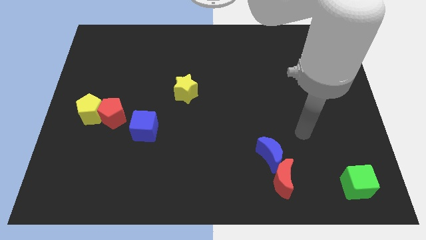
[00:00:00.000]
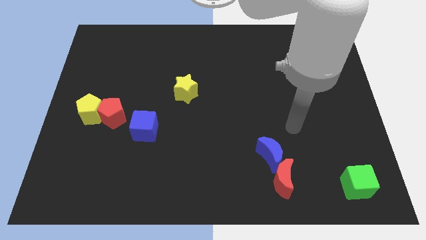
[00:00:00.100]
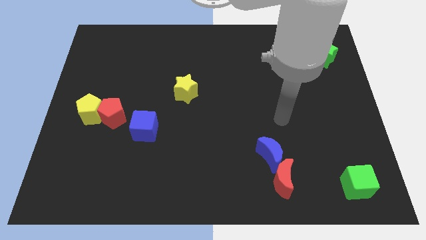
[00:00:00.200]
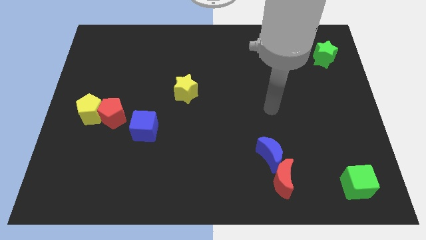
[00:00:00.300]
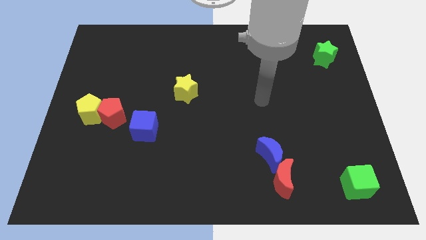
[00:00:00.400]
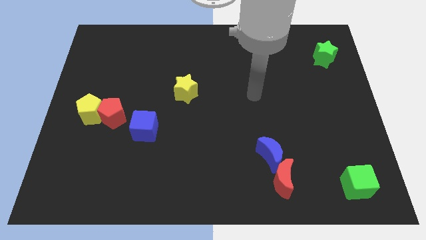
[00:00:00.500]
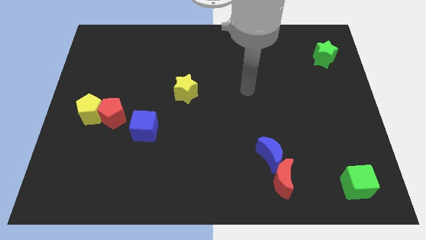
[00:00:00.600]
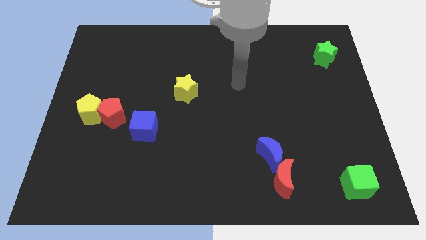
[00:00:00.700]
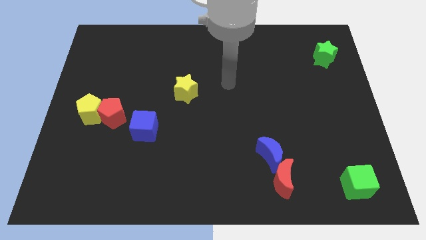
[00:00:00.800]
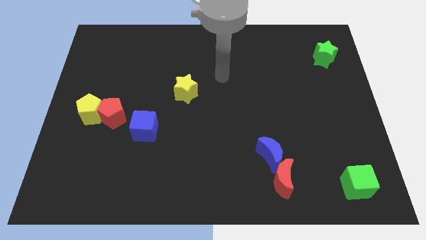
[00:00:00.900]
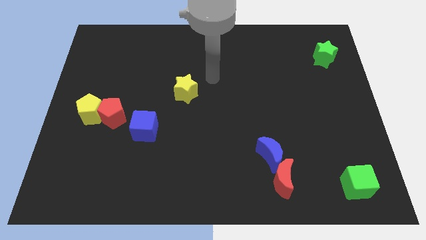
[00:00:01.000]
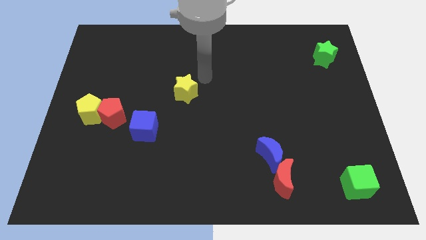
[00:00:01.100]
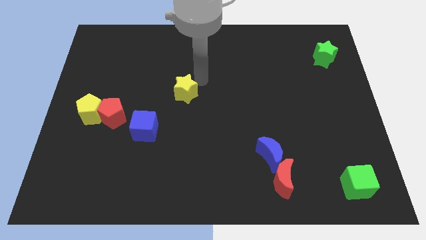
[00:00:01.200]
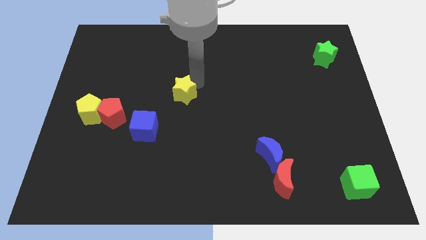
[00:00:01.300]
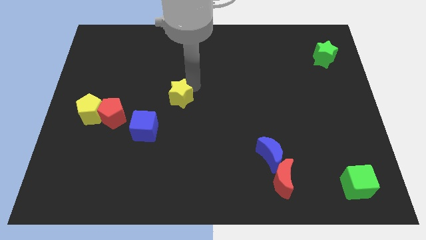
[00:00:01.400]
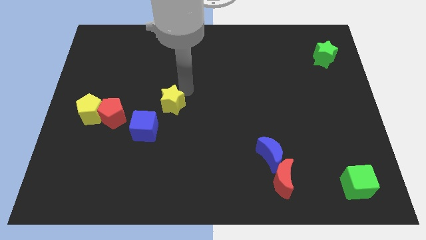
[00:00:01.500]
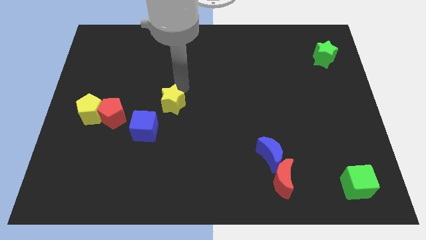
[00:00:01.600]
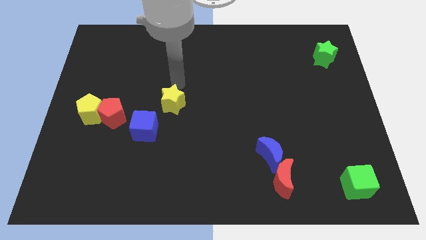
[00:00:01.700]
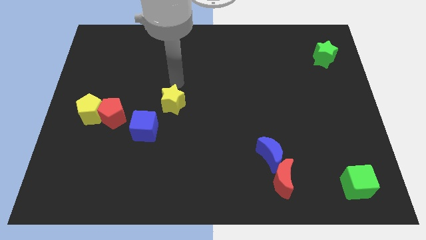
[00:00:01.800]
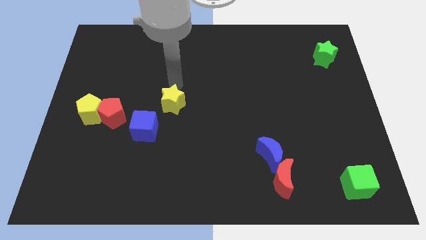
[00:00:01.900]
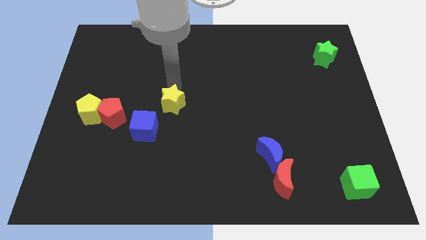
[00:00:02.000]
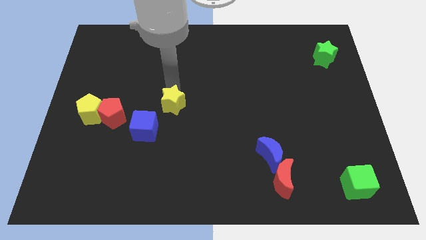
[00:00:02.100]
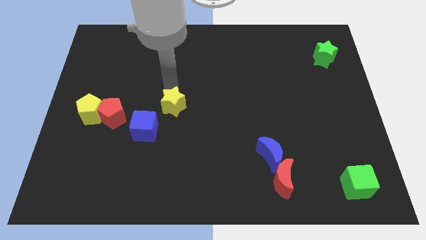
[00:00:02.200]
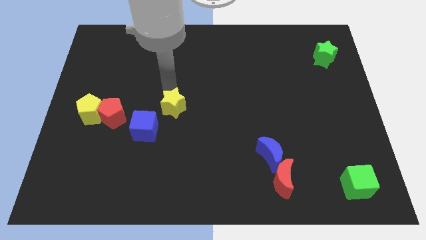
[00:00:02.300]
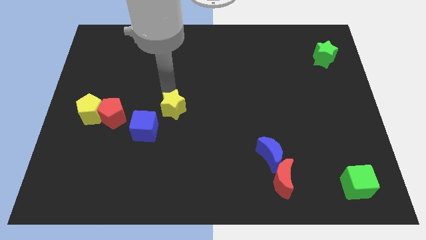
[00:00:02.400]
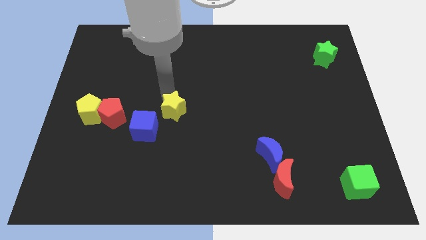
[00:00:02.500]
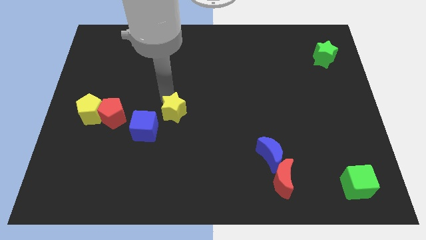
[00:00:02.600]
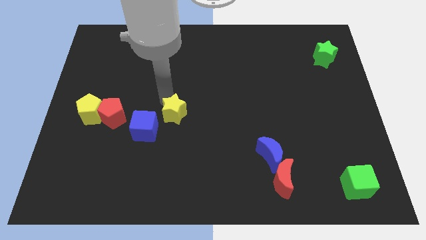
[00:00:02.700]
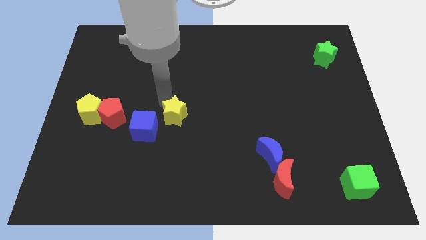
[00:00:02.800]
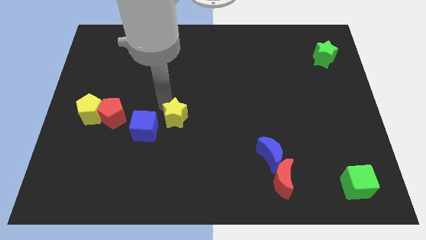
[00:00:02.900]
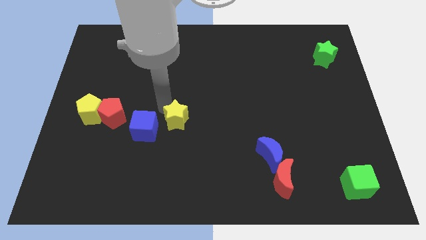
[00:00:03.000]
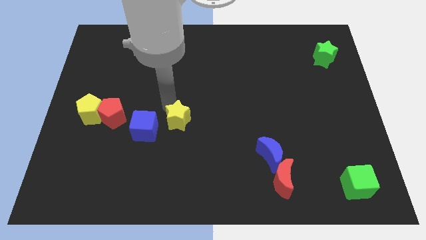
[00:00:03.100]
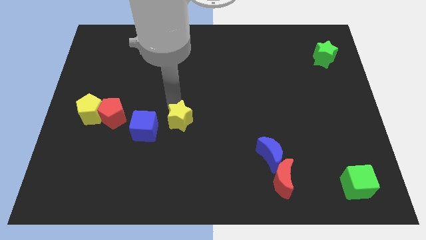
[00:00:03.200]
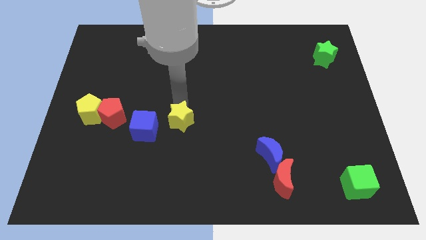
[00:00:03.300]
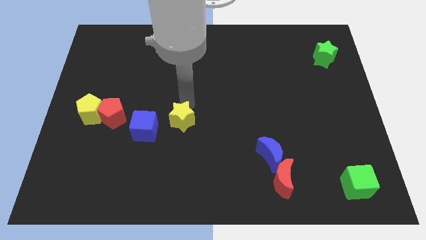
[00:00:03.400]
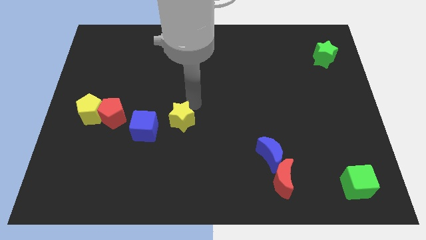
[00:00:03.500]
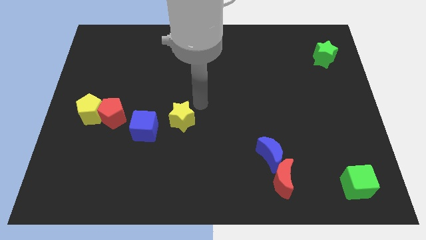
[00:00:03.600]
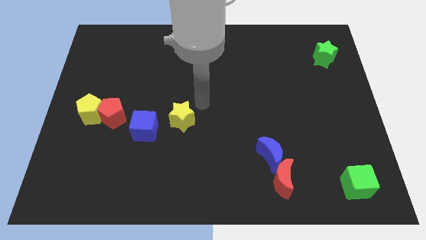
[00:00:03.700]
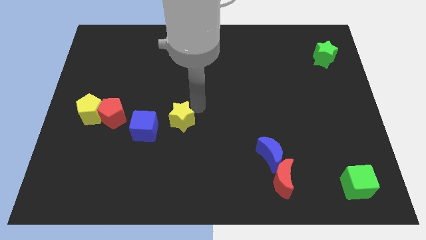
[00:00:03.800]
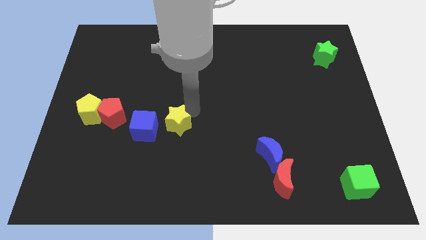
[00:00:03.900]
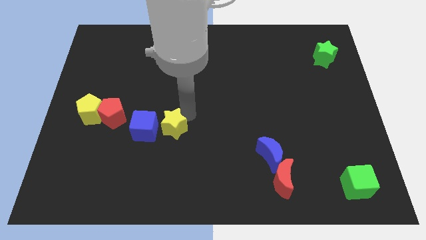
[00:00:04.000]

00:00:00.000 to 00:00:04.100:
move the yellow star downwards and left a little

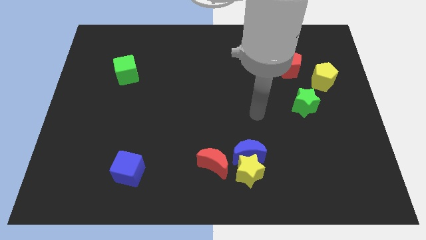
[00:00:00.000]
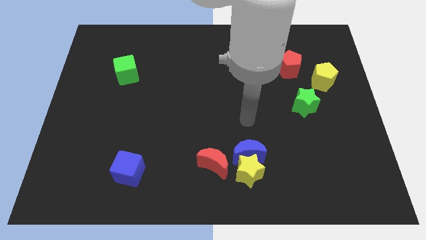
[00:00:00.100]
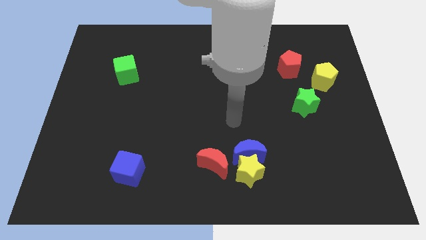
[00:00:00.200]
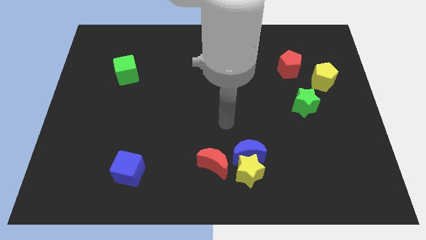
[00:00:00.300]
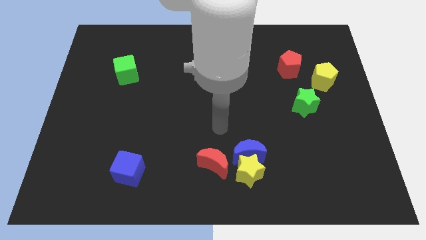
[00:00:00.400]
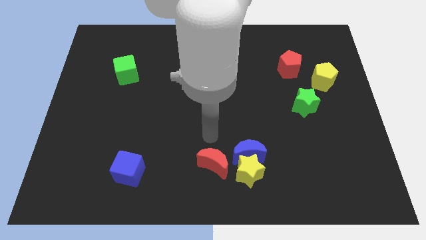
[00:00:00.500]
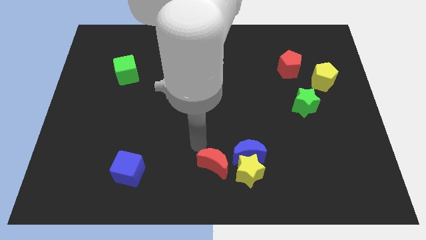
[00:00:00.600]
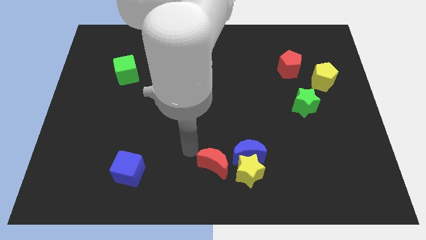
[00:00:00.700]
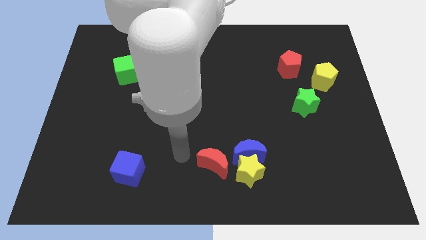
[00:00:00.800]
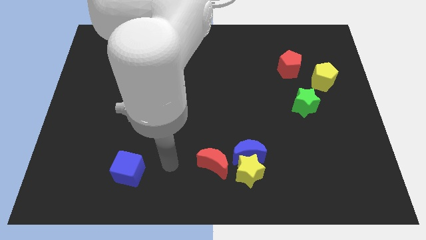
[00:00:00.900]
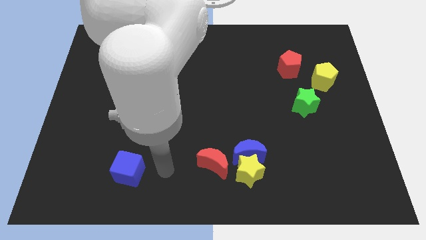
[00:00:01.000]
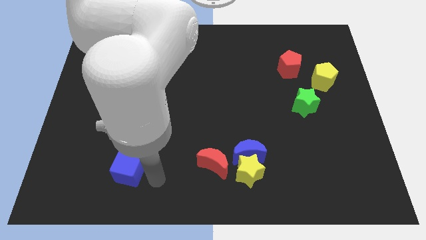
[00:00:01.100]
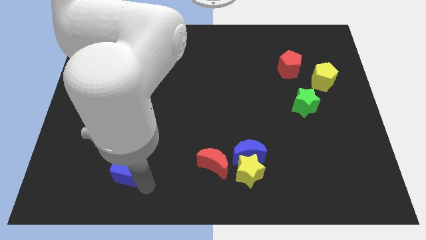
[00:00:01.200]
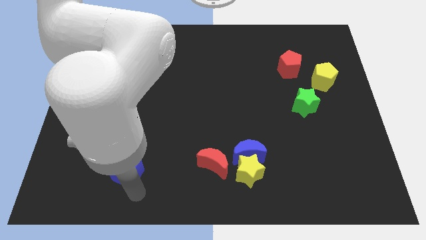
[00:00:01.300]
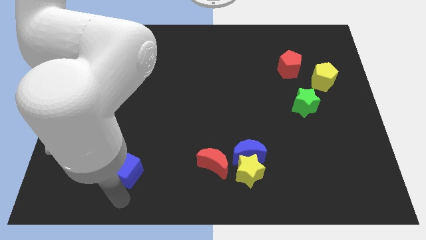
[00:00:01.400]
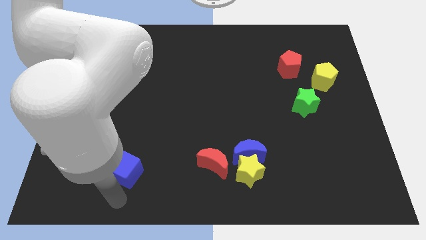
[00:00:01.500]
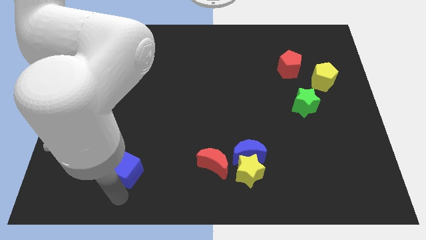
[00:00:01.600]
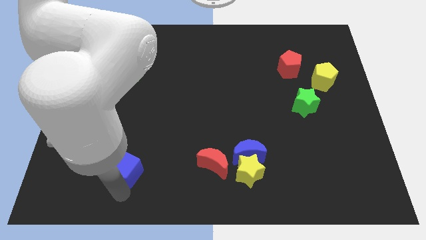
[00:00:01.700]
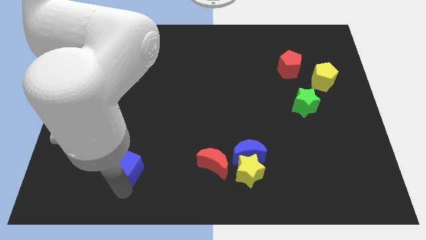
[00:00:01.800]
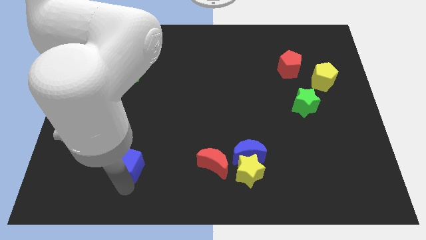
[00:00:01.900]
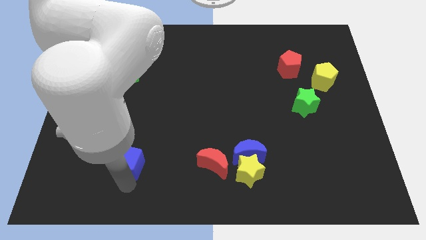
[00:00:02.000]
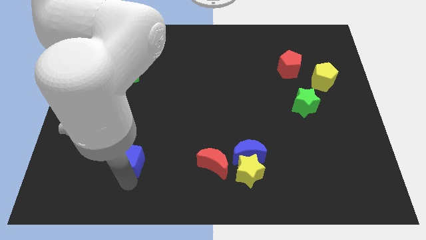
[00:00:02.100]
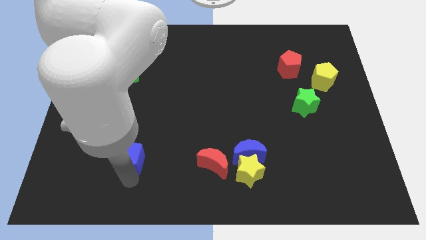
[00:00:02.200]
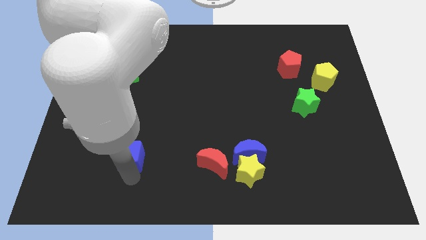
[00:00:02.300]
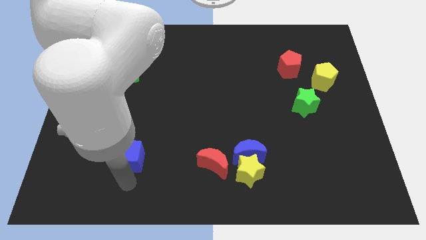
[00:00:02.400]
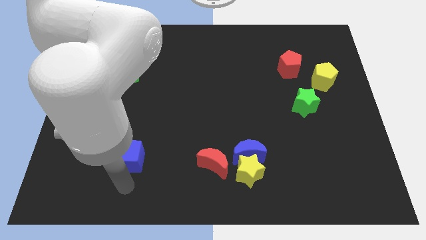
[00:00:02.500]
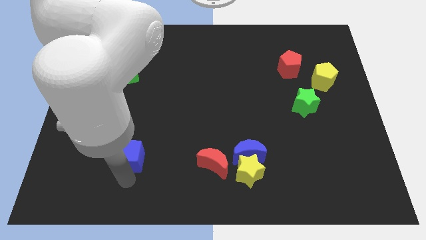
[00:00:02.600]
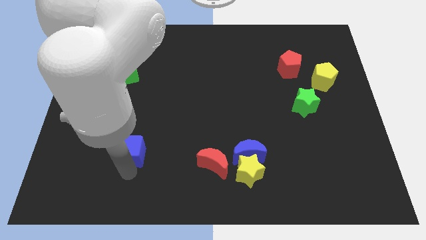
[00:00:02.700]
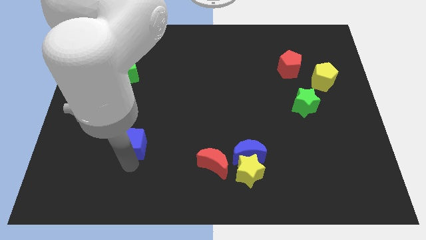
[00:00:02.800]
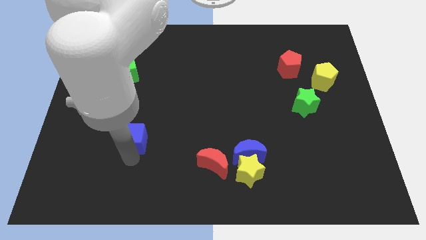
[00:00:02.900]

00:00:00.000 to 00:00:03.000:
slightly push the blue cube up

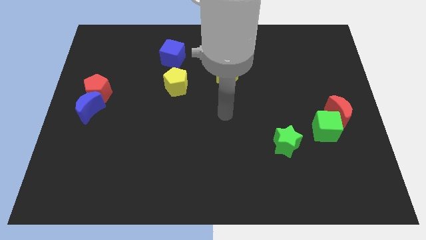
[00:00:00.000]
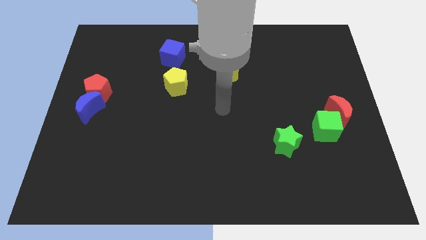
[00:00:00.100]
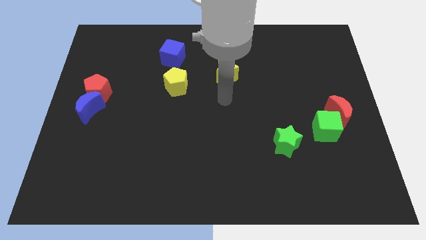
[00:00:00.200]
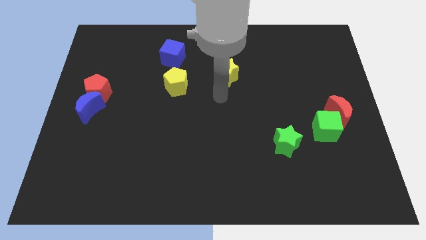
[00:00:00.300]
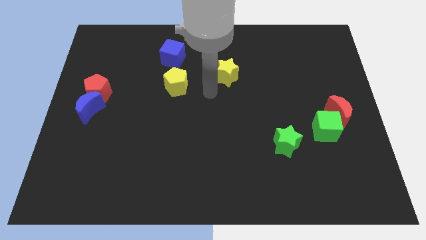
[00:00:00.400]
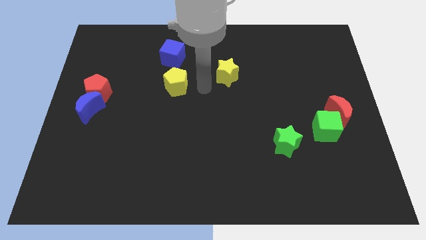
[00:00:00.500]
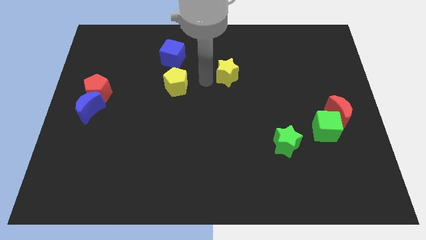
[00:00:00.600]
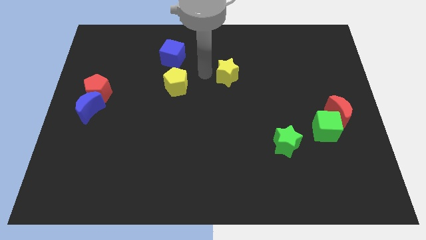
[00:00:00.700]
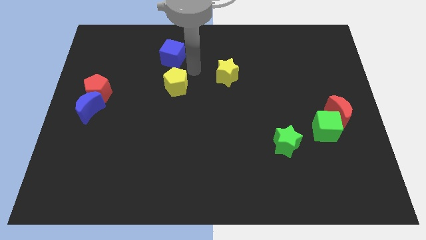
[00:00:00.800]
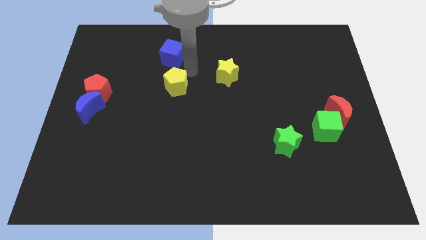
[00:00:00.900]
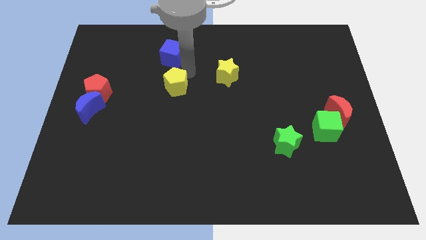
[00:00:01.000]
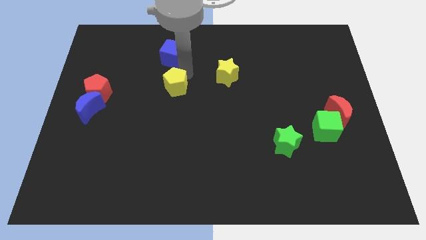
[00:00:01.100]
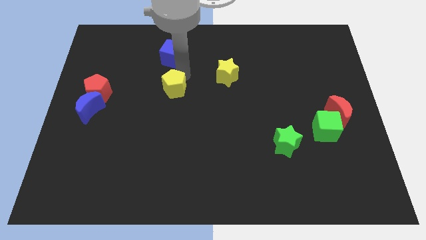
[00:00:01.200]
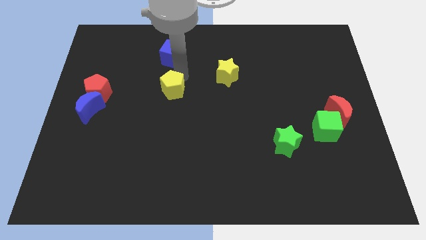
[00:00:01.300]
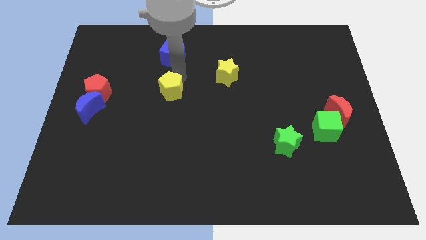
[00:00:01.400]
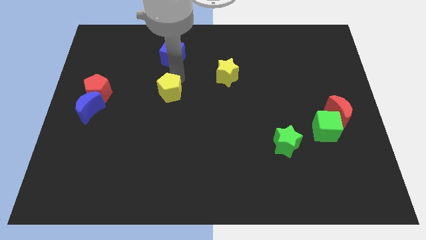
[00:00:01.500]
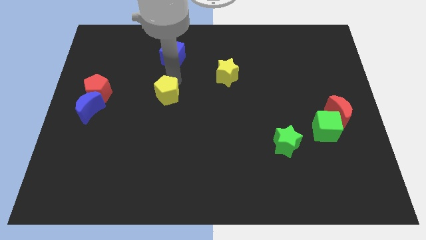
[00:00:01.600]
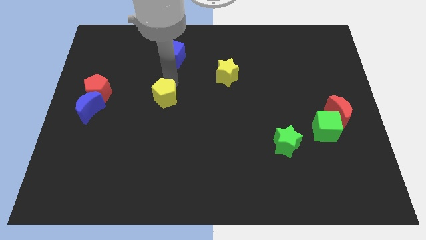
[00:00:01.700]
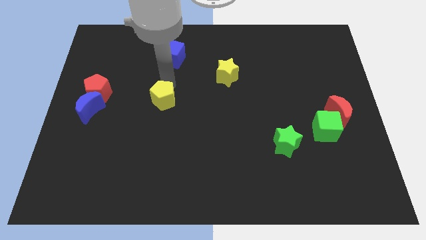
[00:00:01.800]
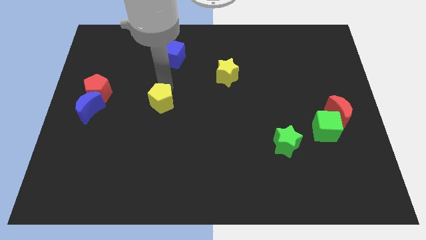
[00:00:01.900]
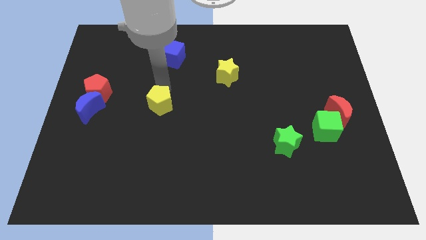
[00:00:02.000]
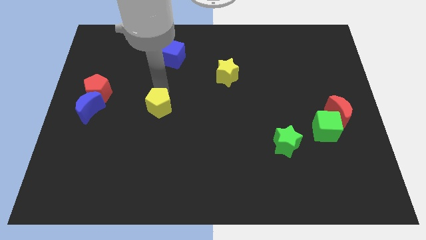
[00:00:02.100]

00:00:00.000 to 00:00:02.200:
slide the yellow pentagon downwards and to the left diagonally slightly
